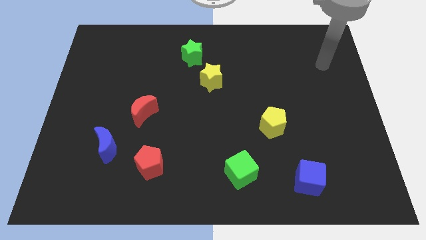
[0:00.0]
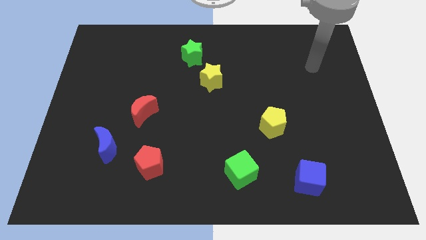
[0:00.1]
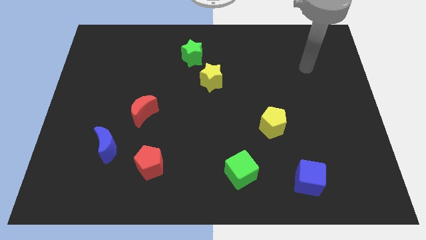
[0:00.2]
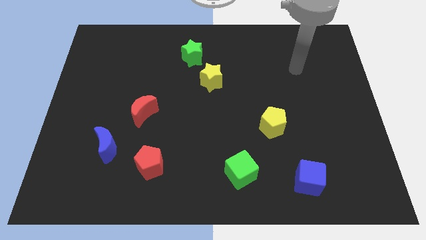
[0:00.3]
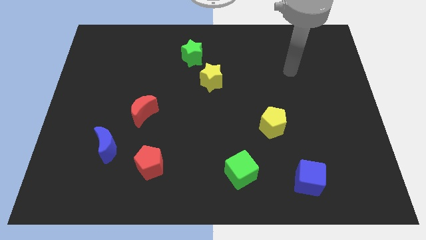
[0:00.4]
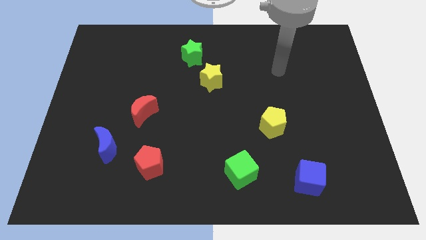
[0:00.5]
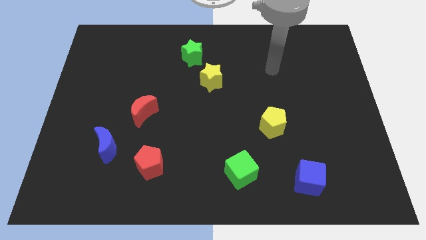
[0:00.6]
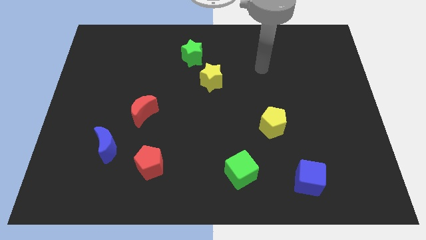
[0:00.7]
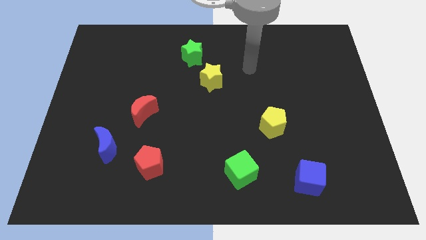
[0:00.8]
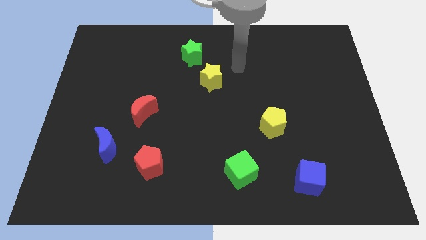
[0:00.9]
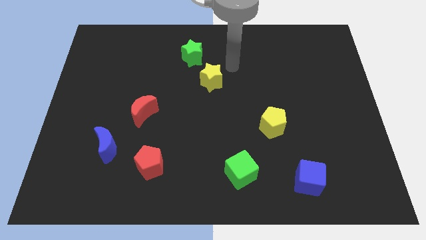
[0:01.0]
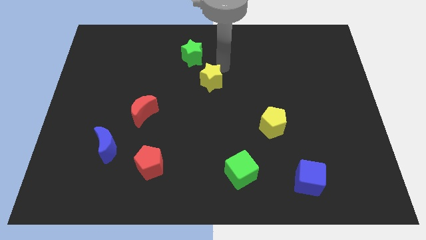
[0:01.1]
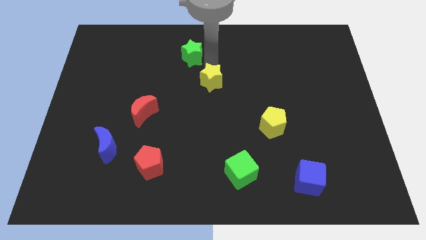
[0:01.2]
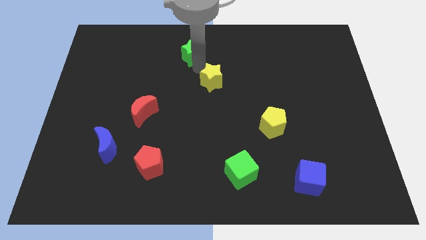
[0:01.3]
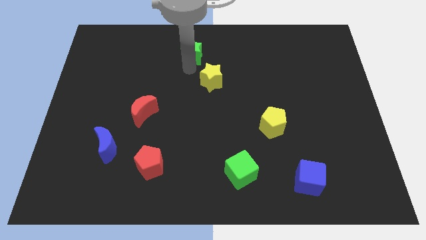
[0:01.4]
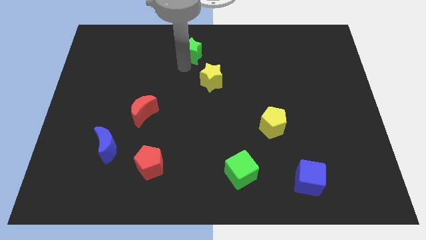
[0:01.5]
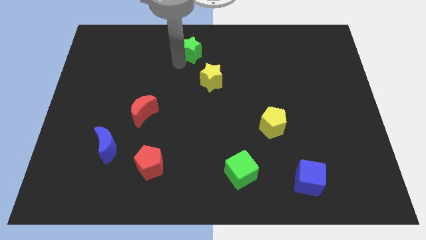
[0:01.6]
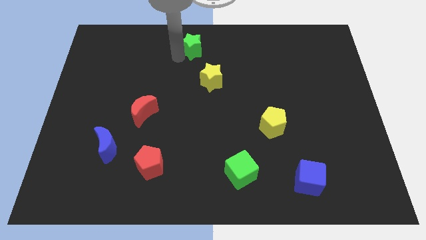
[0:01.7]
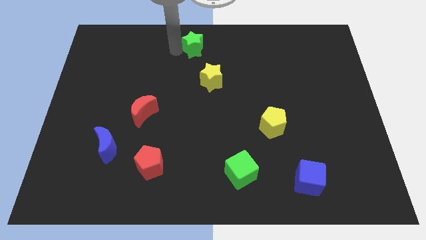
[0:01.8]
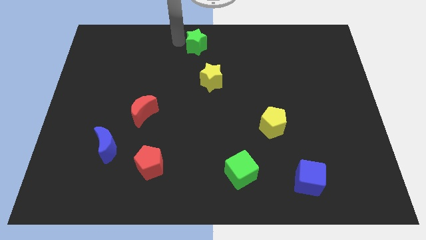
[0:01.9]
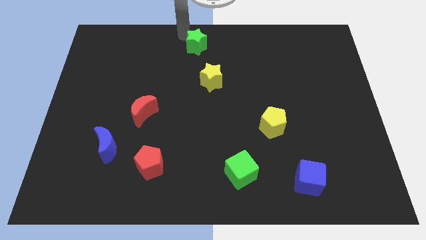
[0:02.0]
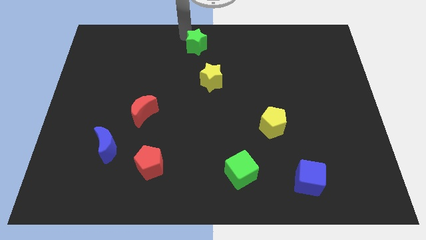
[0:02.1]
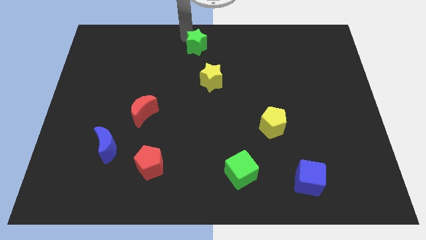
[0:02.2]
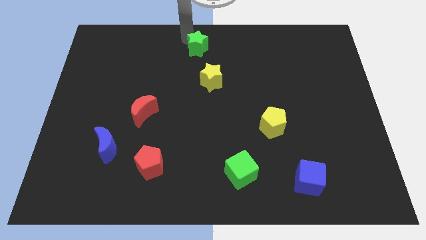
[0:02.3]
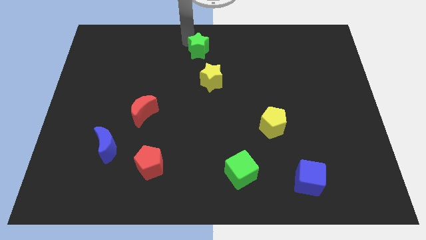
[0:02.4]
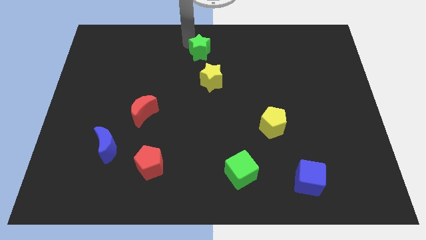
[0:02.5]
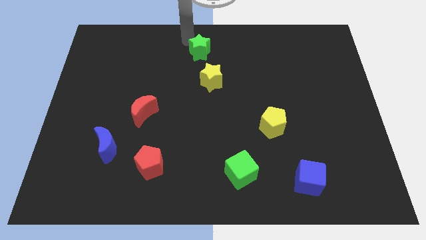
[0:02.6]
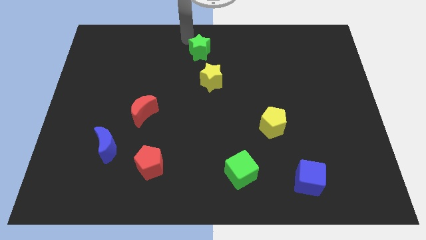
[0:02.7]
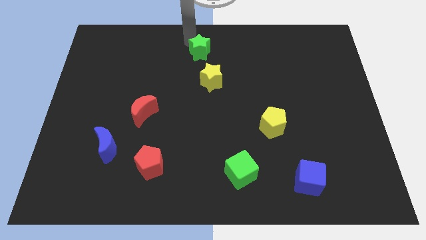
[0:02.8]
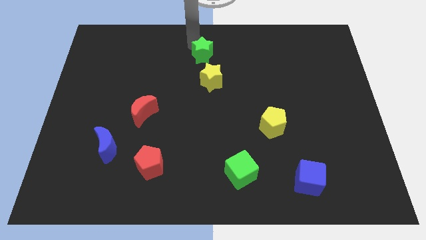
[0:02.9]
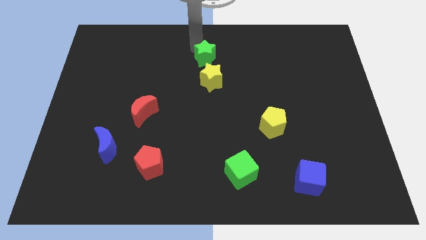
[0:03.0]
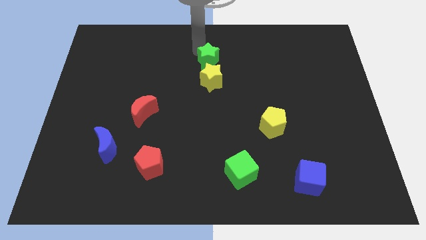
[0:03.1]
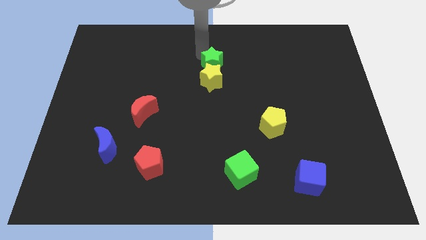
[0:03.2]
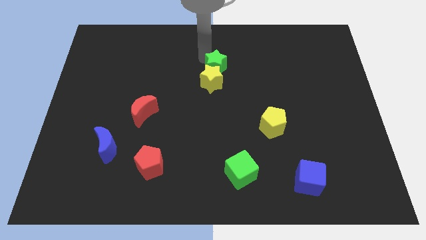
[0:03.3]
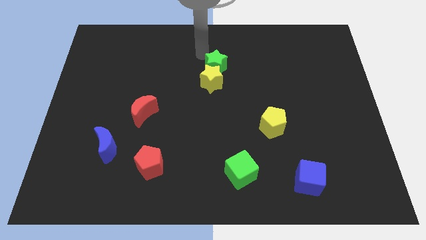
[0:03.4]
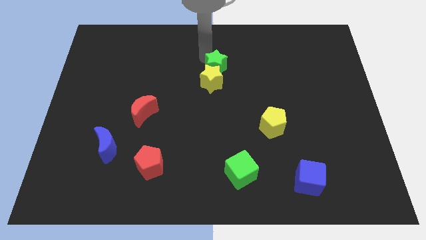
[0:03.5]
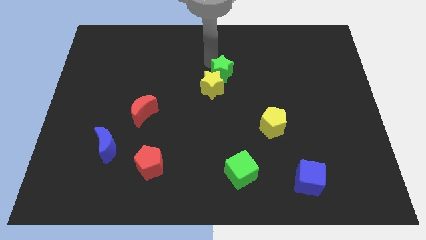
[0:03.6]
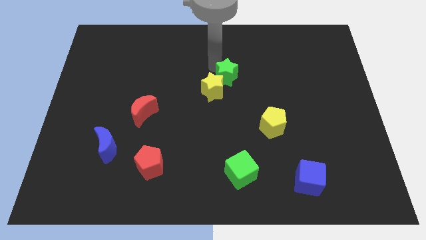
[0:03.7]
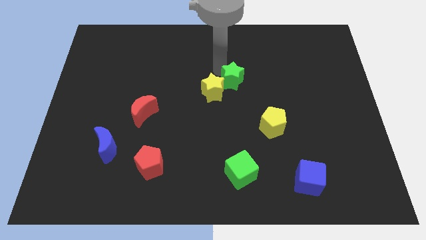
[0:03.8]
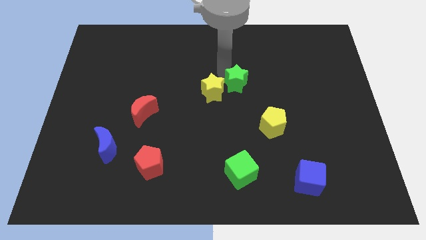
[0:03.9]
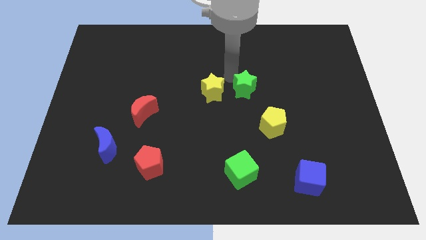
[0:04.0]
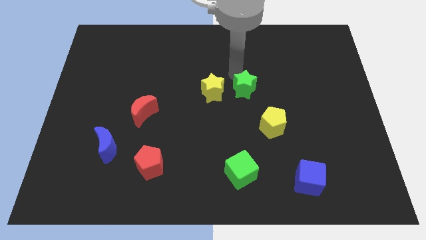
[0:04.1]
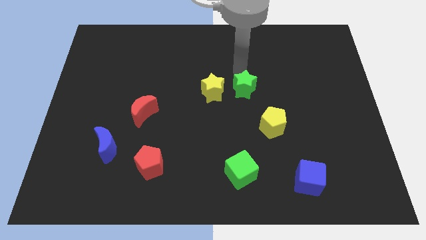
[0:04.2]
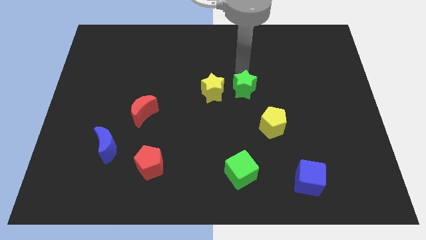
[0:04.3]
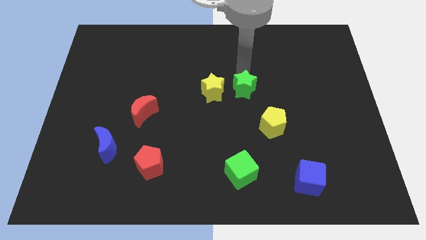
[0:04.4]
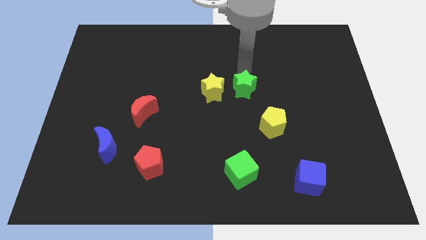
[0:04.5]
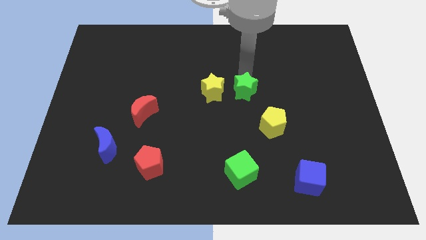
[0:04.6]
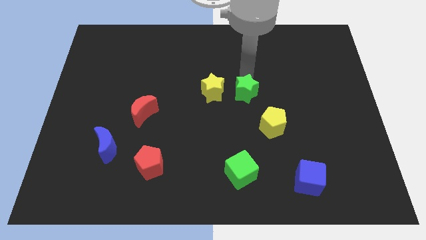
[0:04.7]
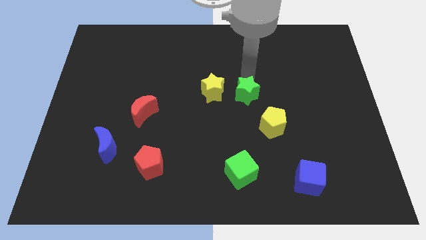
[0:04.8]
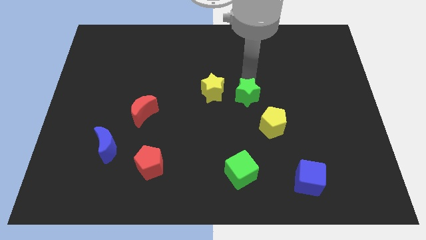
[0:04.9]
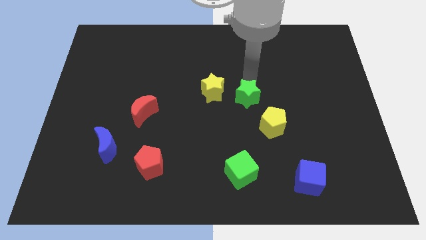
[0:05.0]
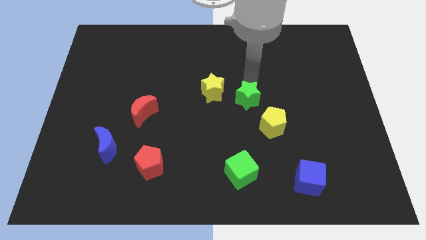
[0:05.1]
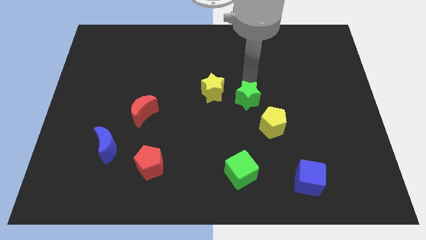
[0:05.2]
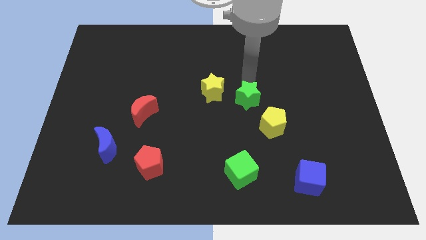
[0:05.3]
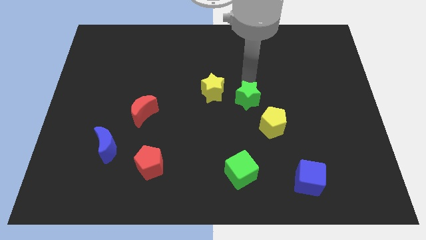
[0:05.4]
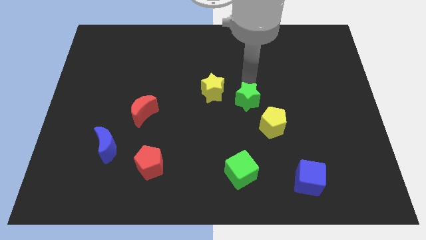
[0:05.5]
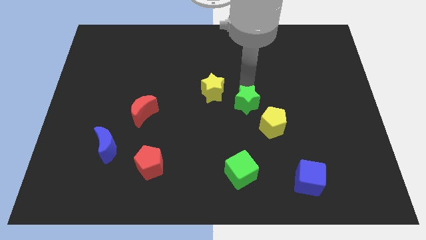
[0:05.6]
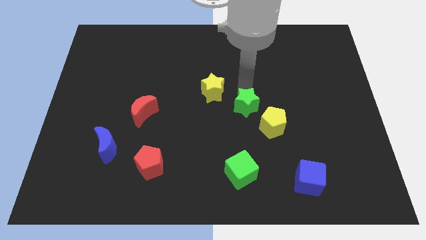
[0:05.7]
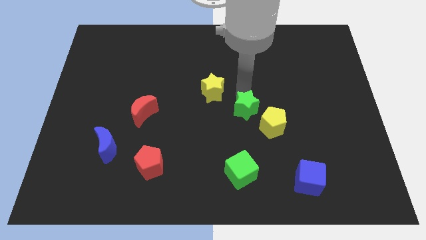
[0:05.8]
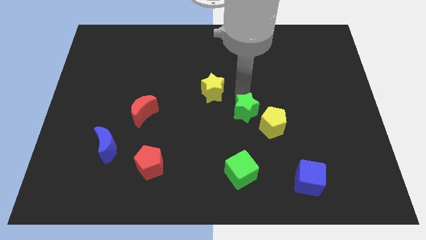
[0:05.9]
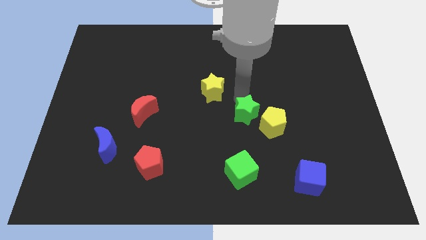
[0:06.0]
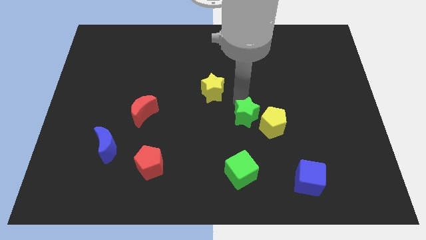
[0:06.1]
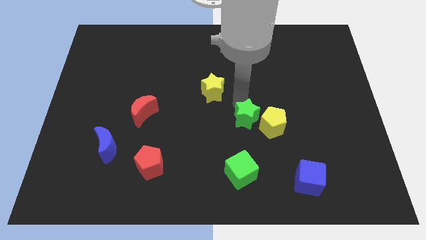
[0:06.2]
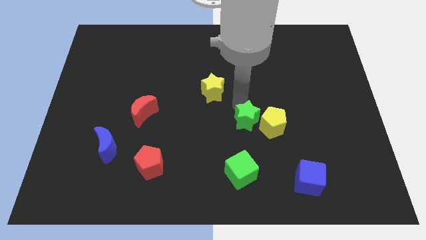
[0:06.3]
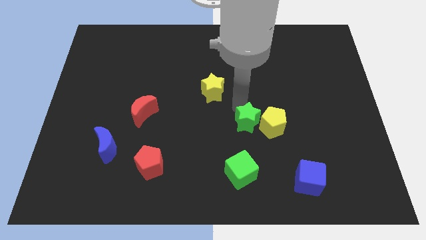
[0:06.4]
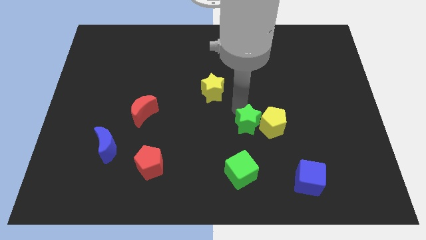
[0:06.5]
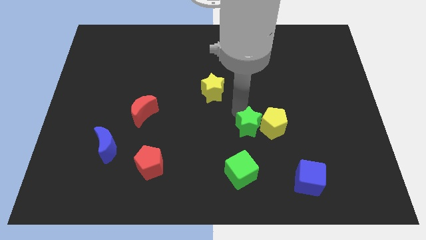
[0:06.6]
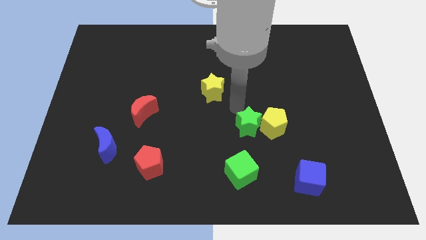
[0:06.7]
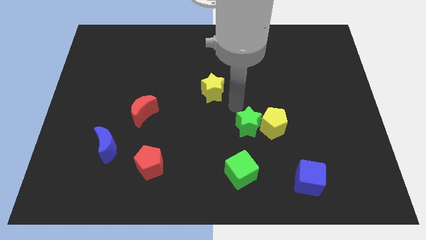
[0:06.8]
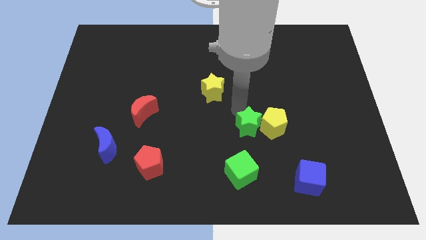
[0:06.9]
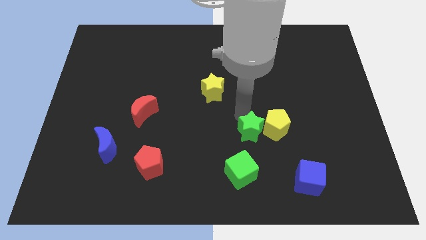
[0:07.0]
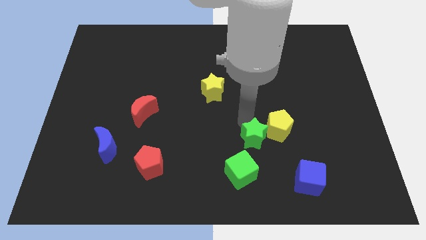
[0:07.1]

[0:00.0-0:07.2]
move the green star diagonally up and to the right of the green cube

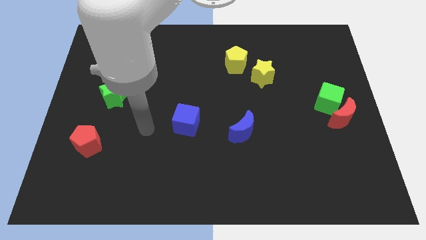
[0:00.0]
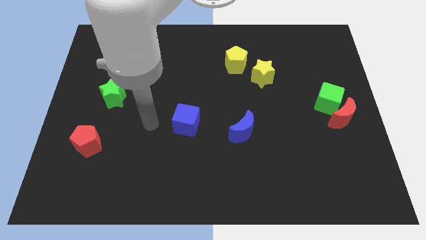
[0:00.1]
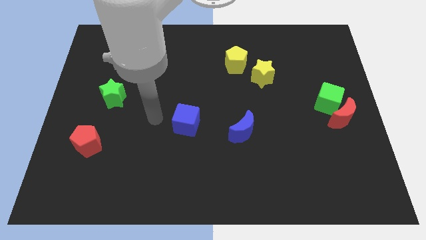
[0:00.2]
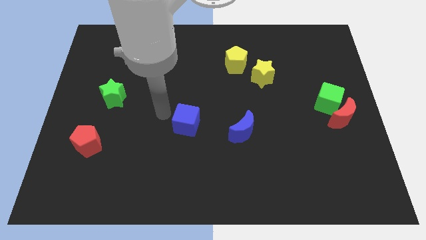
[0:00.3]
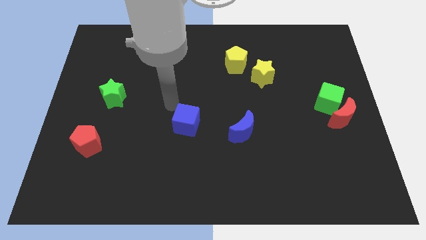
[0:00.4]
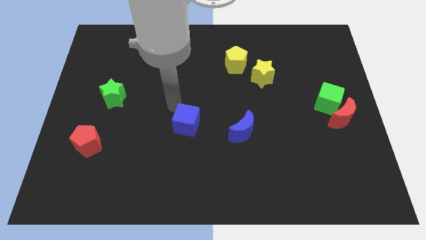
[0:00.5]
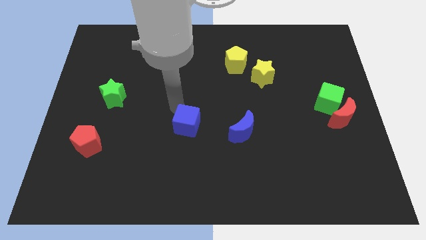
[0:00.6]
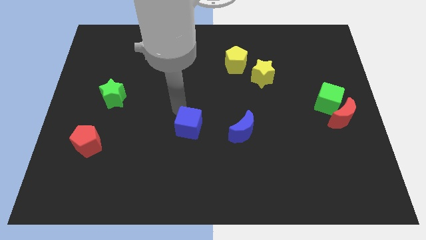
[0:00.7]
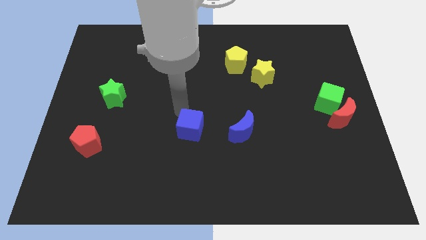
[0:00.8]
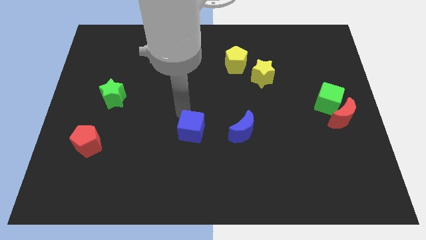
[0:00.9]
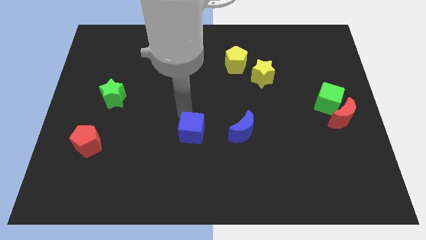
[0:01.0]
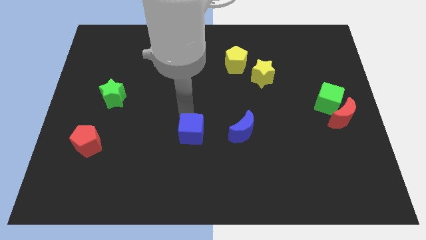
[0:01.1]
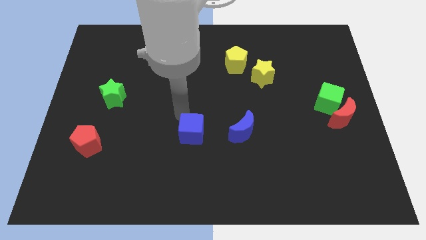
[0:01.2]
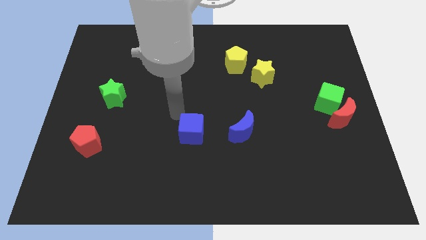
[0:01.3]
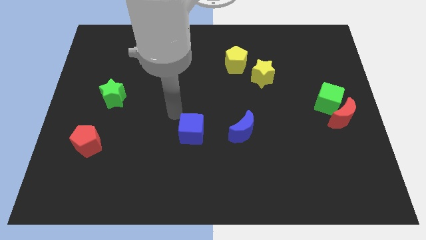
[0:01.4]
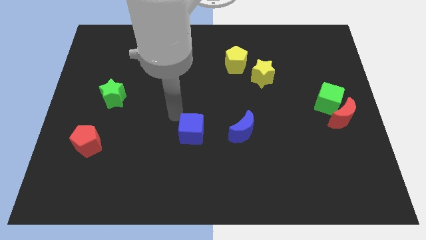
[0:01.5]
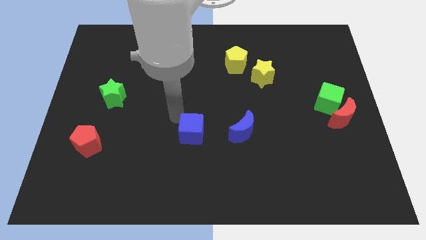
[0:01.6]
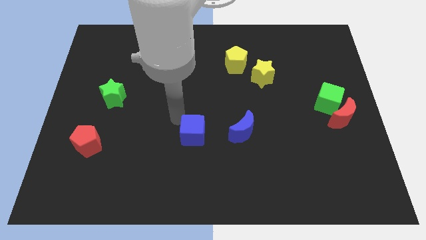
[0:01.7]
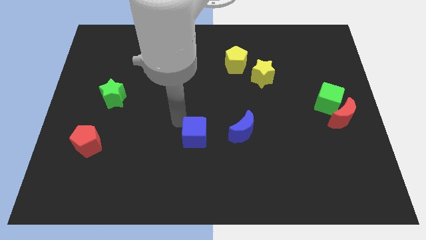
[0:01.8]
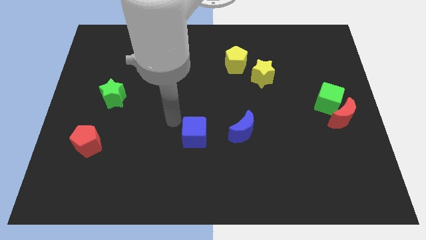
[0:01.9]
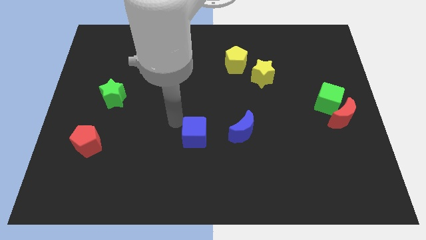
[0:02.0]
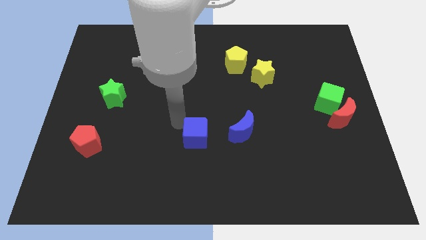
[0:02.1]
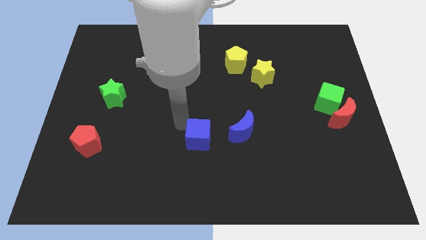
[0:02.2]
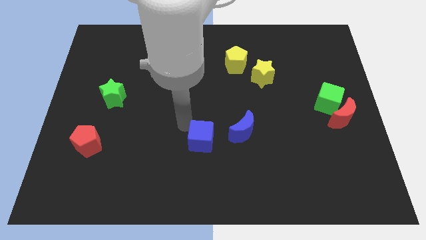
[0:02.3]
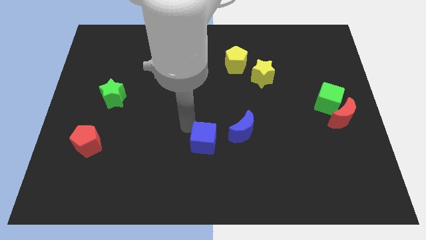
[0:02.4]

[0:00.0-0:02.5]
move the blue cube diagonally down and to the left of the blue moon
